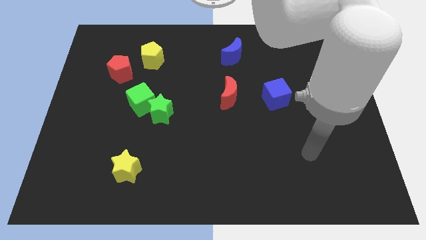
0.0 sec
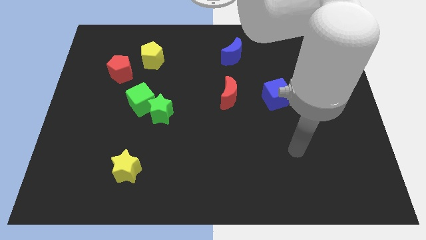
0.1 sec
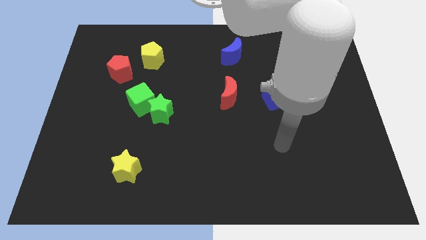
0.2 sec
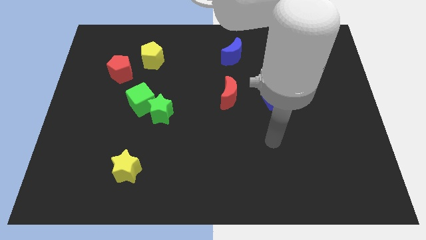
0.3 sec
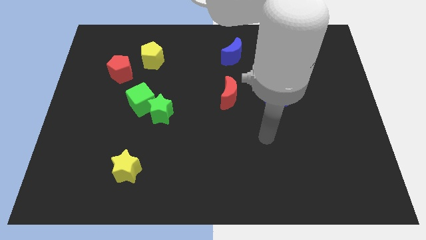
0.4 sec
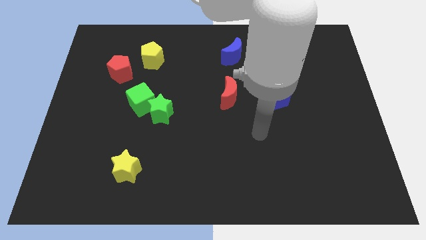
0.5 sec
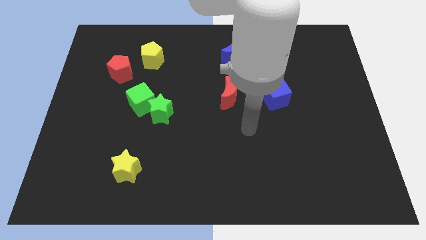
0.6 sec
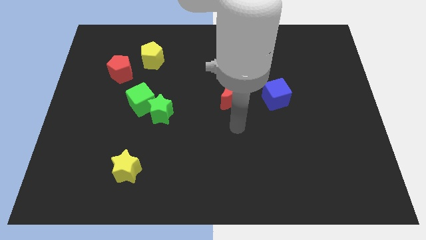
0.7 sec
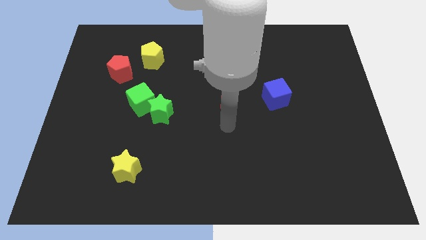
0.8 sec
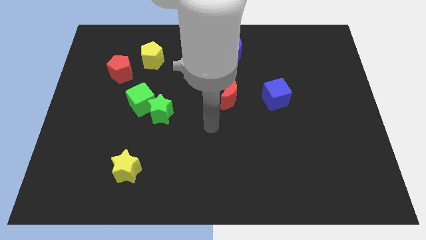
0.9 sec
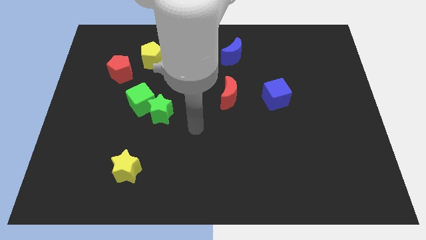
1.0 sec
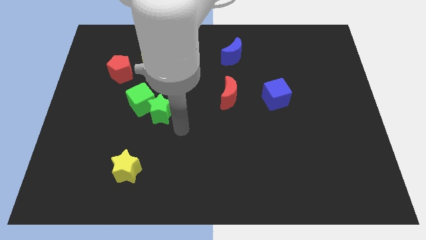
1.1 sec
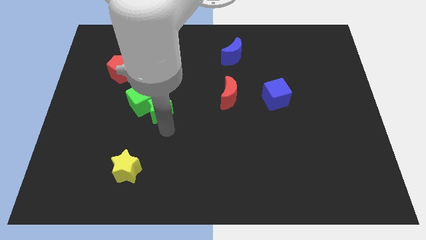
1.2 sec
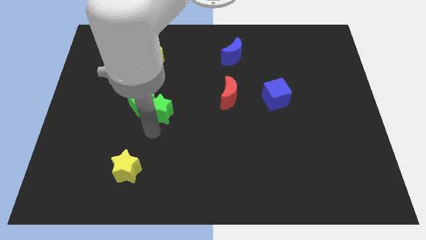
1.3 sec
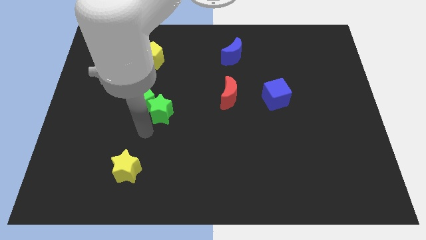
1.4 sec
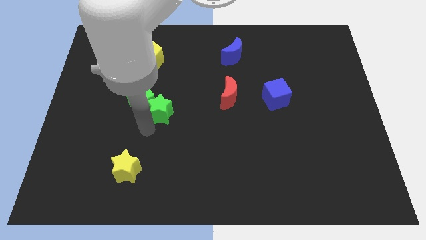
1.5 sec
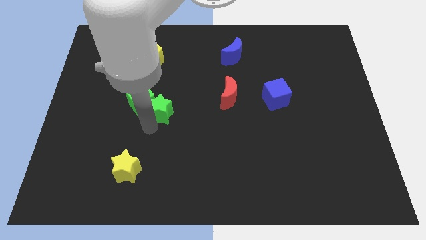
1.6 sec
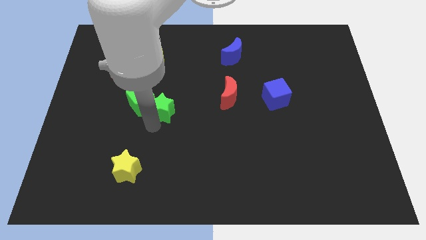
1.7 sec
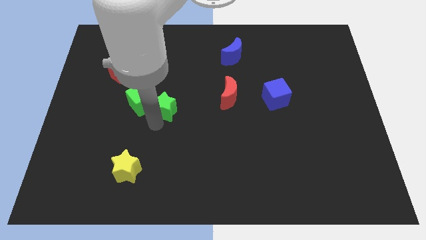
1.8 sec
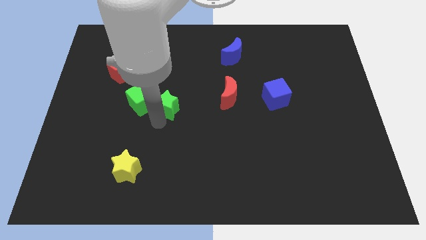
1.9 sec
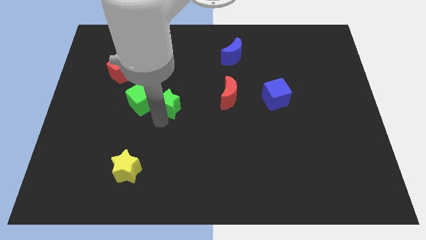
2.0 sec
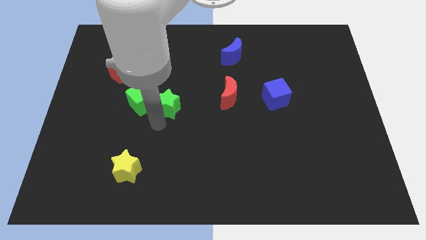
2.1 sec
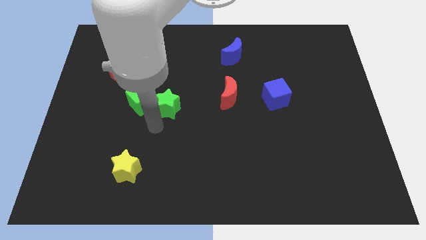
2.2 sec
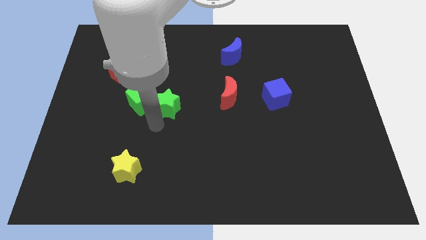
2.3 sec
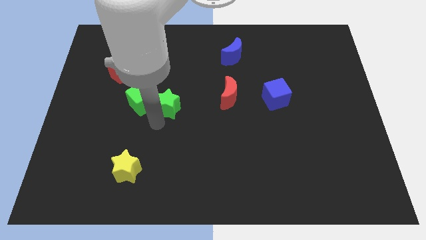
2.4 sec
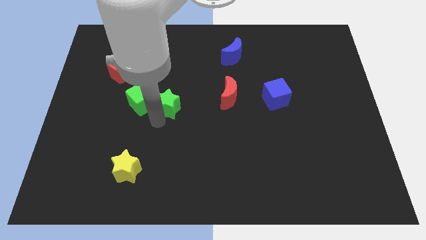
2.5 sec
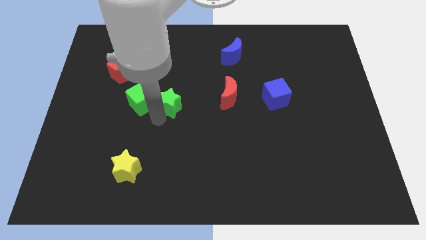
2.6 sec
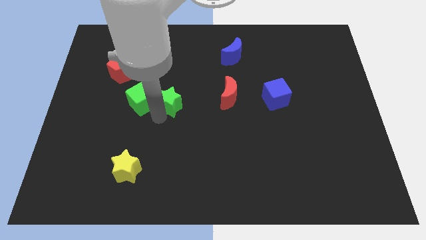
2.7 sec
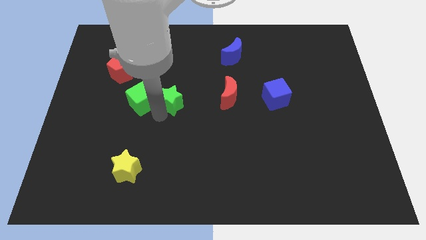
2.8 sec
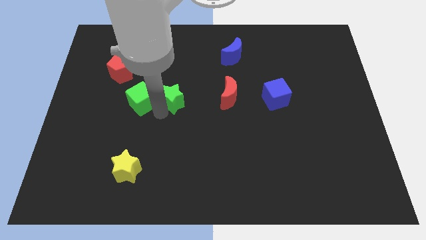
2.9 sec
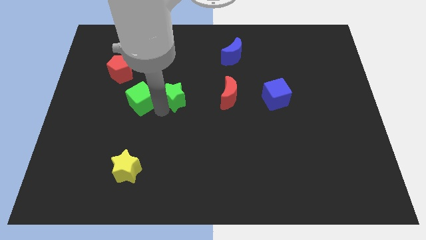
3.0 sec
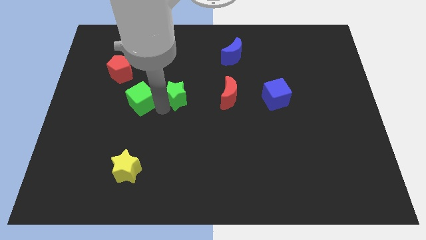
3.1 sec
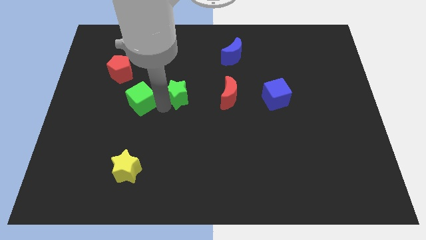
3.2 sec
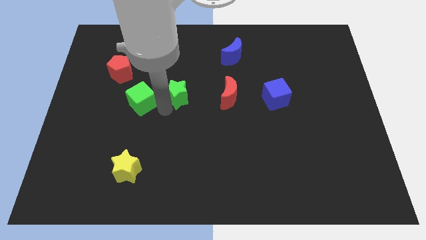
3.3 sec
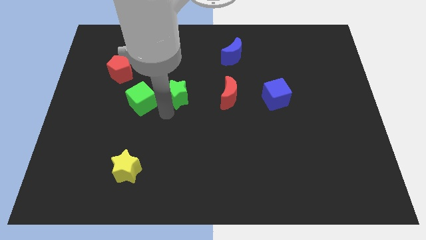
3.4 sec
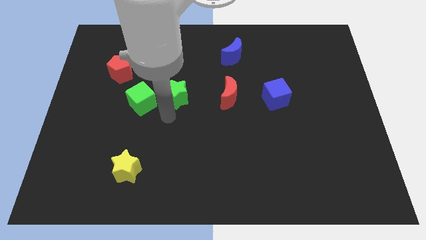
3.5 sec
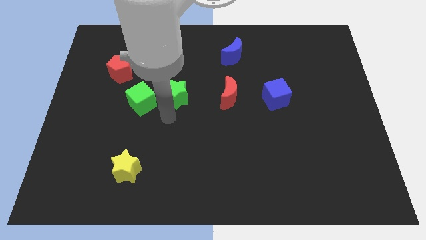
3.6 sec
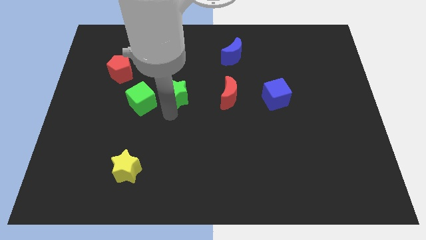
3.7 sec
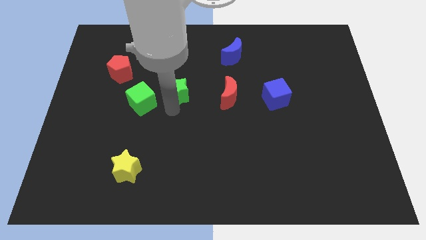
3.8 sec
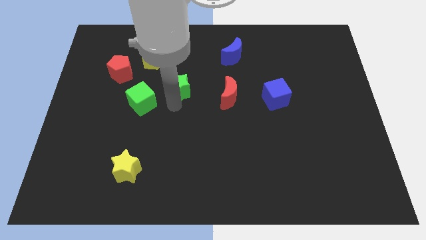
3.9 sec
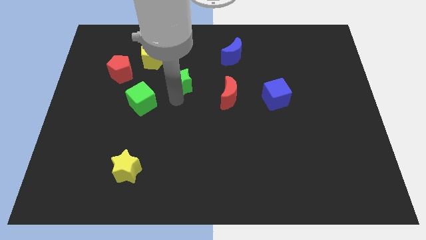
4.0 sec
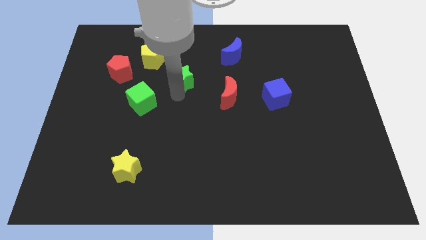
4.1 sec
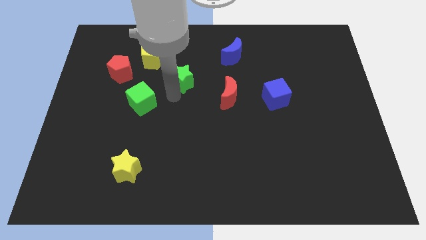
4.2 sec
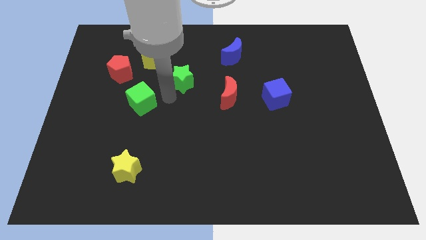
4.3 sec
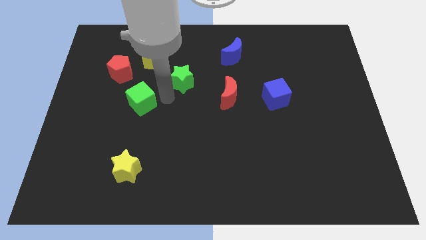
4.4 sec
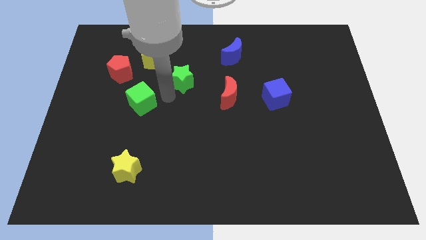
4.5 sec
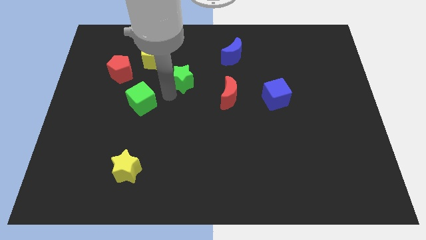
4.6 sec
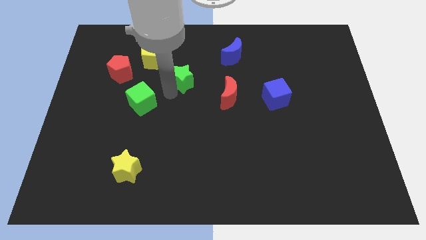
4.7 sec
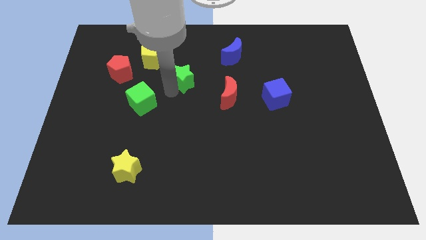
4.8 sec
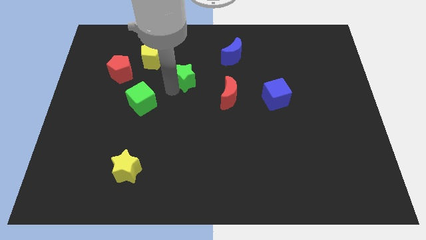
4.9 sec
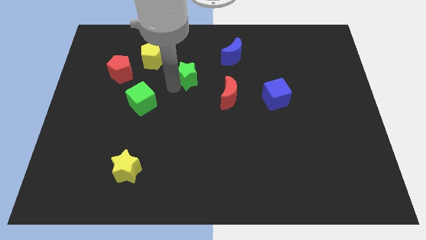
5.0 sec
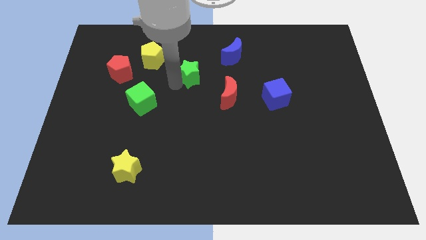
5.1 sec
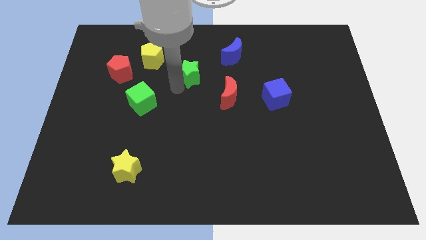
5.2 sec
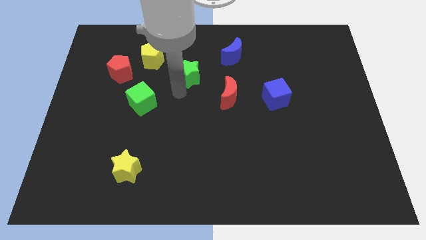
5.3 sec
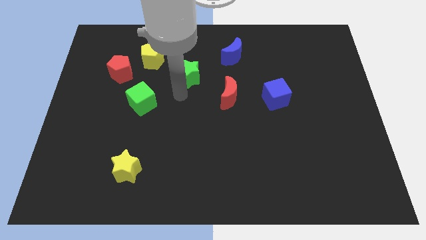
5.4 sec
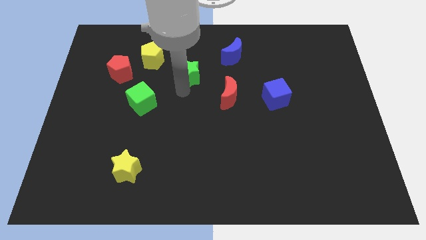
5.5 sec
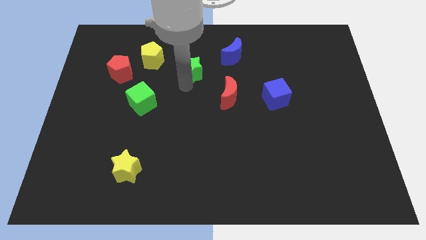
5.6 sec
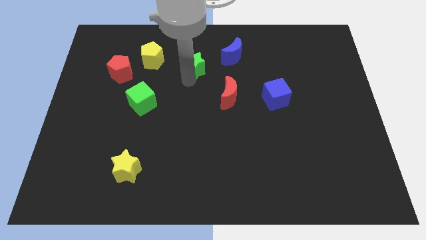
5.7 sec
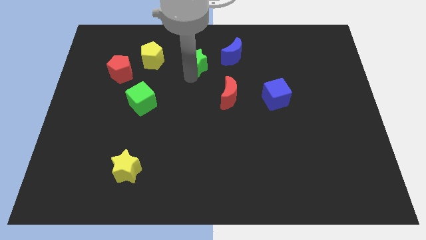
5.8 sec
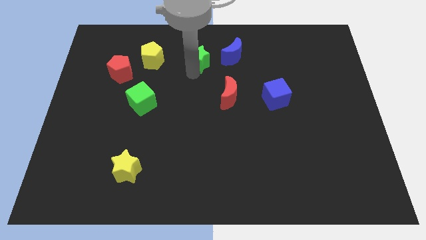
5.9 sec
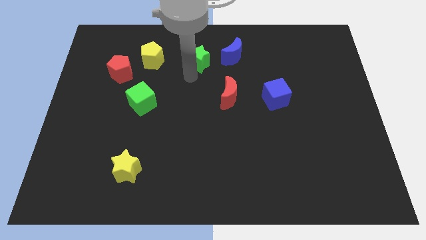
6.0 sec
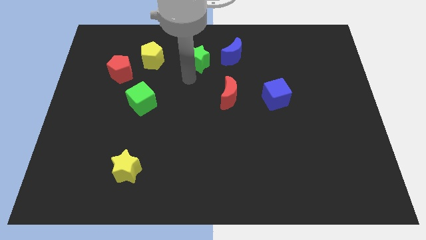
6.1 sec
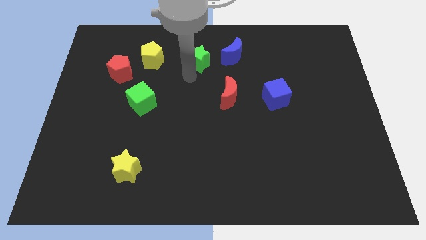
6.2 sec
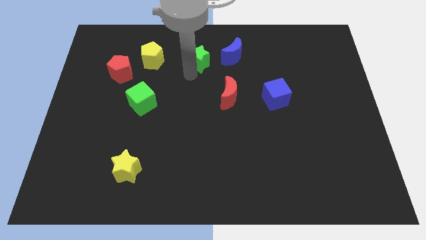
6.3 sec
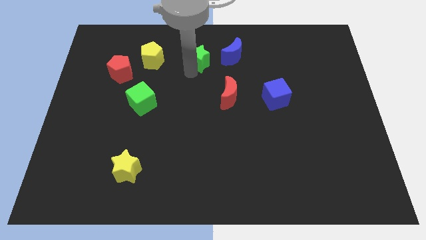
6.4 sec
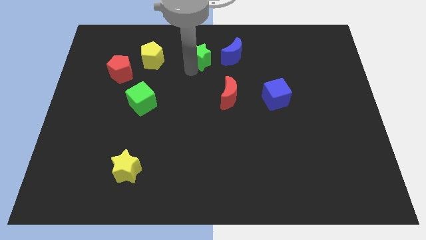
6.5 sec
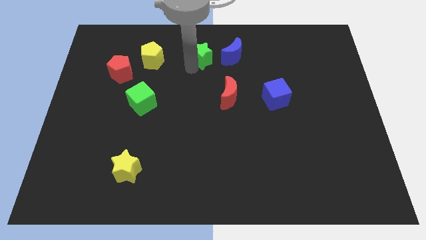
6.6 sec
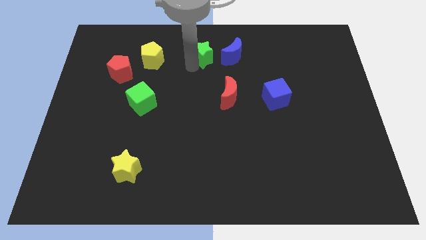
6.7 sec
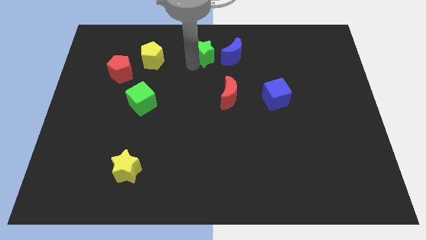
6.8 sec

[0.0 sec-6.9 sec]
push the green star to the top side
